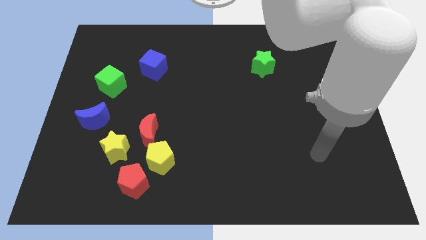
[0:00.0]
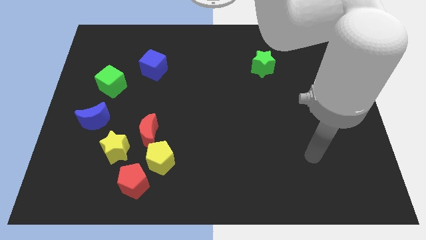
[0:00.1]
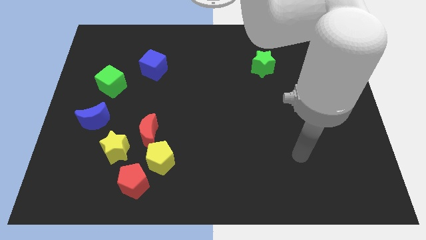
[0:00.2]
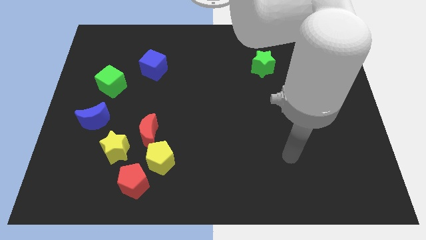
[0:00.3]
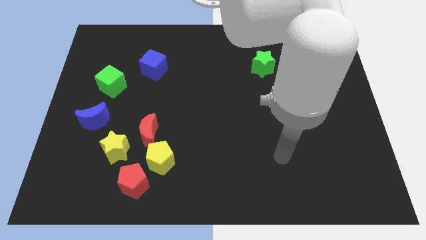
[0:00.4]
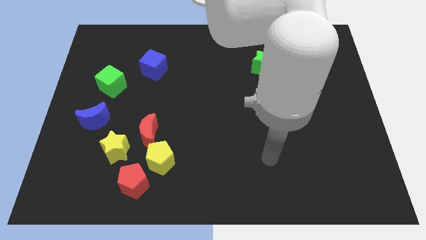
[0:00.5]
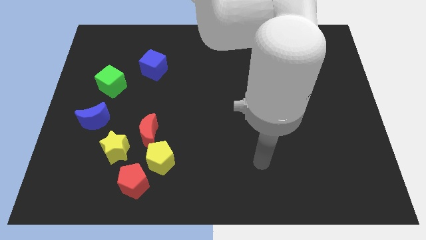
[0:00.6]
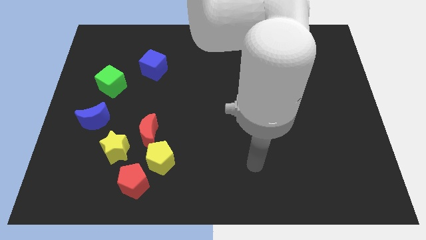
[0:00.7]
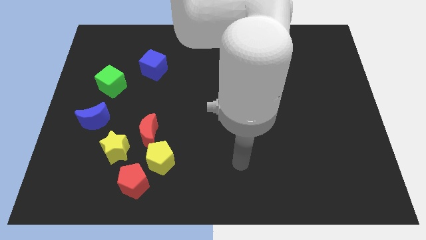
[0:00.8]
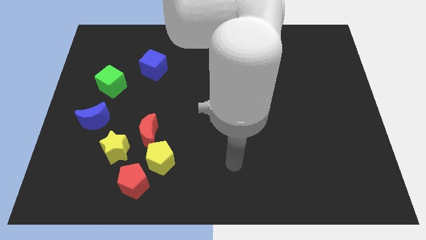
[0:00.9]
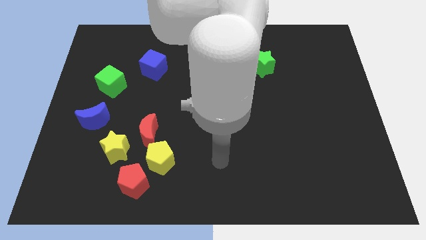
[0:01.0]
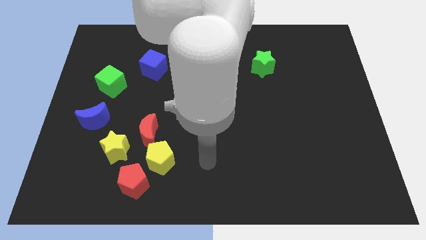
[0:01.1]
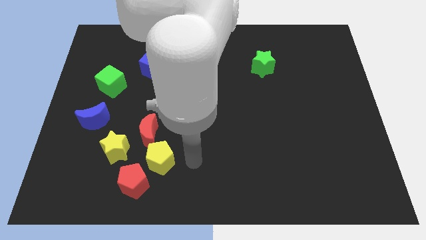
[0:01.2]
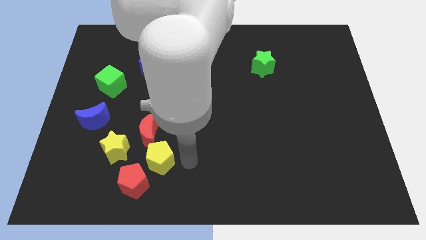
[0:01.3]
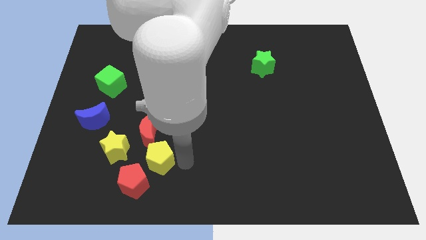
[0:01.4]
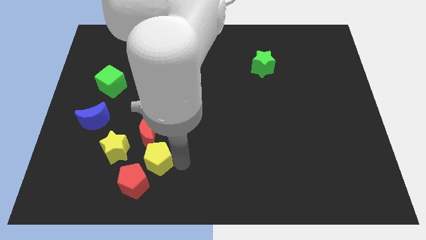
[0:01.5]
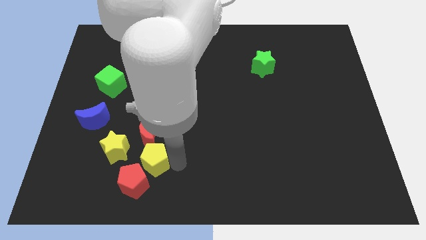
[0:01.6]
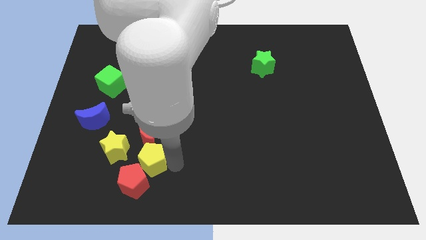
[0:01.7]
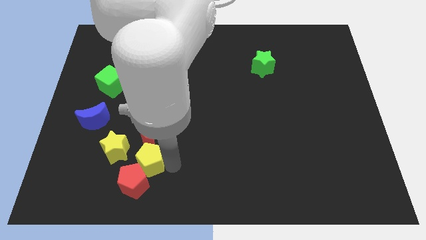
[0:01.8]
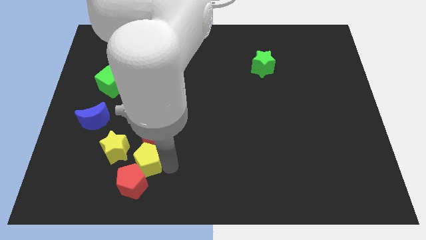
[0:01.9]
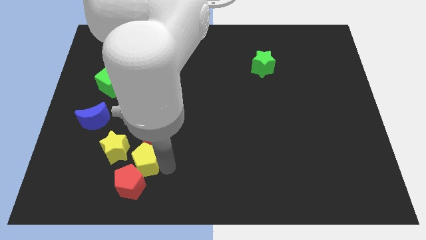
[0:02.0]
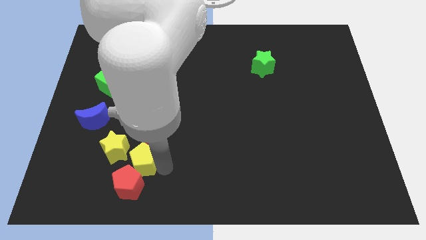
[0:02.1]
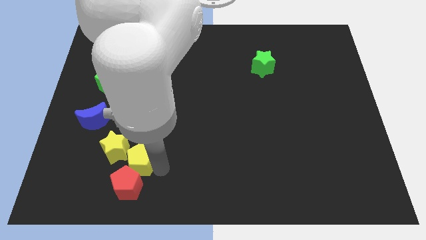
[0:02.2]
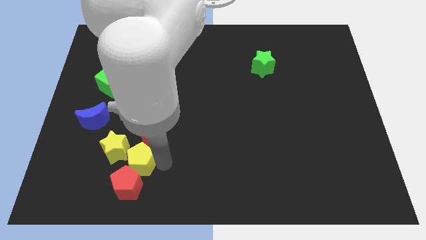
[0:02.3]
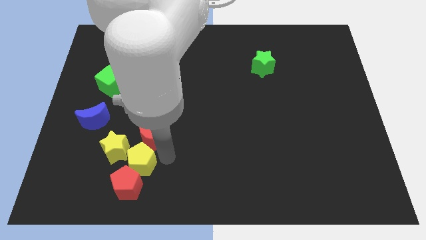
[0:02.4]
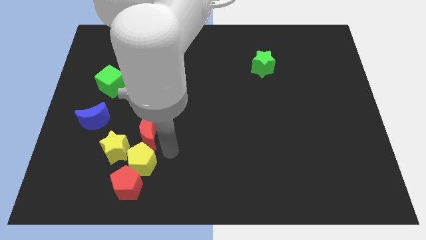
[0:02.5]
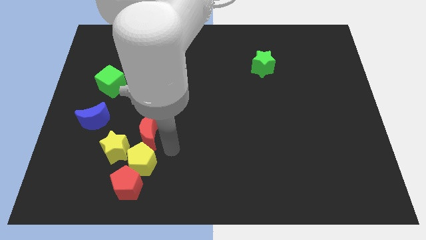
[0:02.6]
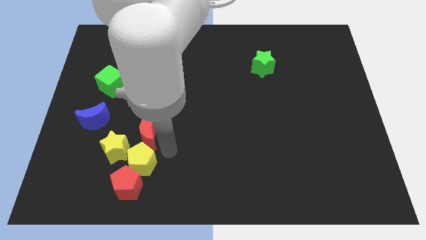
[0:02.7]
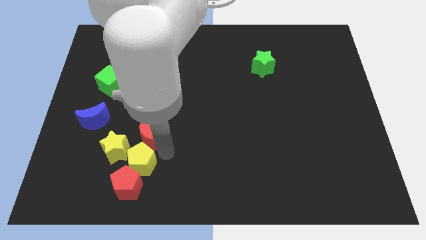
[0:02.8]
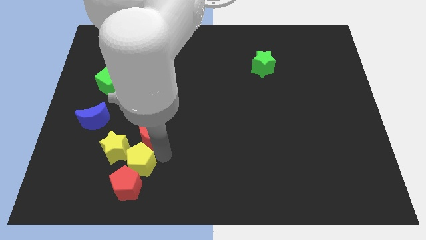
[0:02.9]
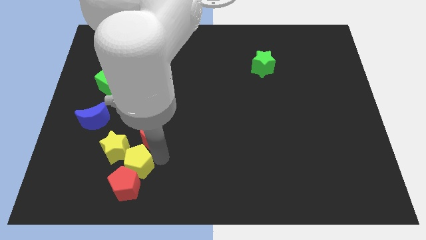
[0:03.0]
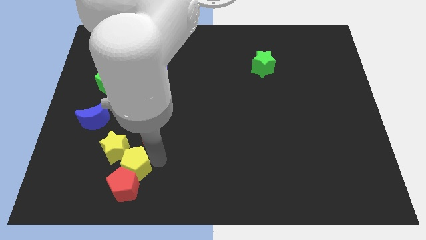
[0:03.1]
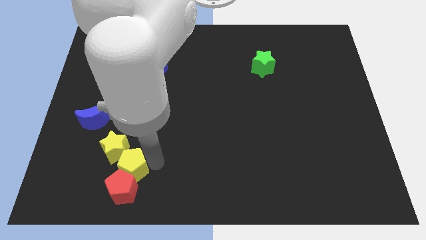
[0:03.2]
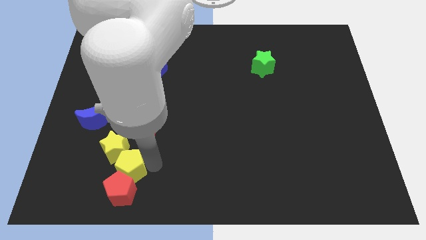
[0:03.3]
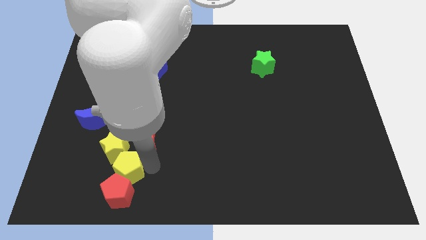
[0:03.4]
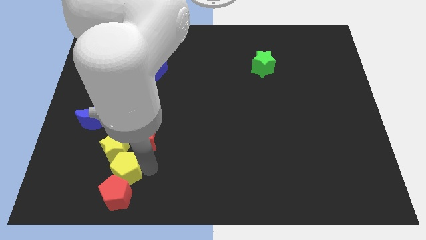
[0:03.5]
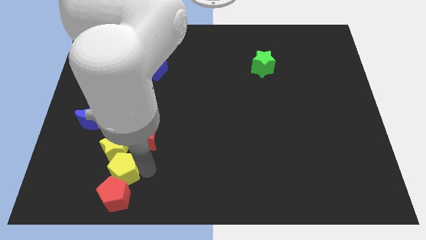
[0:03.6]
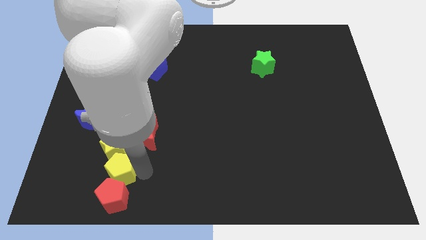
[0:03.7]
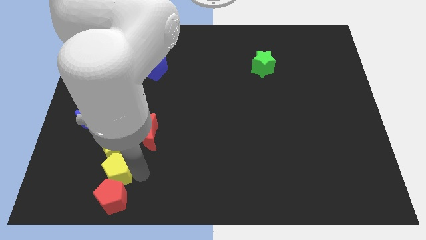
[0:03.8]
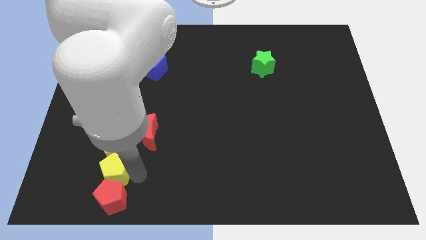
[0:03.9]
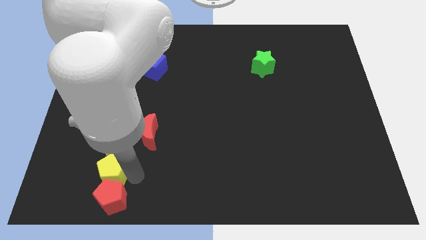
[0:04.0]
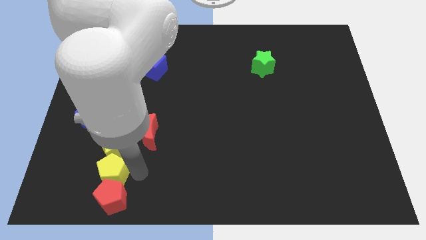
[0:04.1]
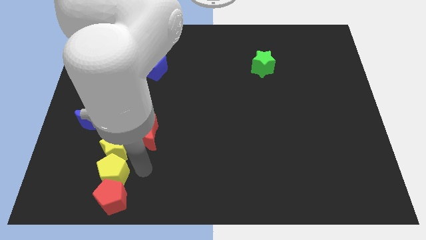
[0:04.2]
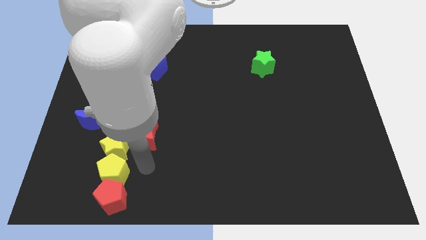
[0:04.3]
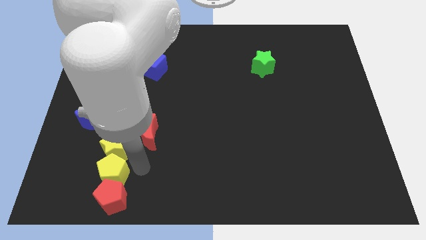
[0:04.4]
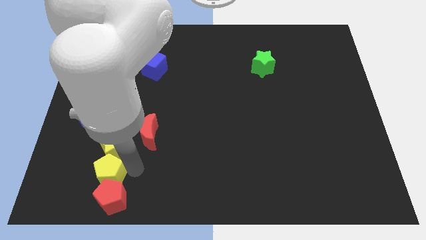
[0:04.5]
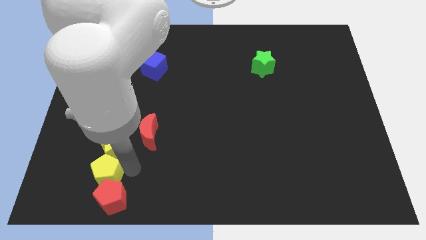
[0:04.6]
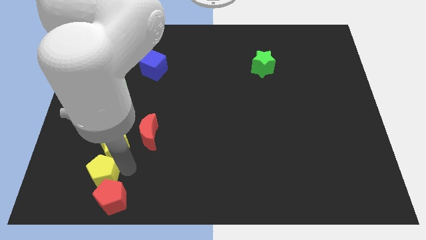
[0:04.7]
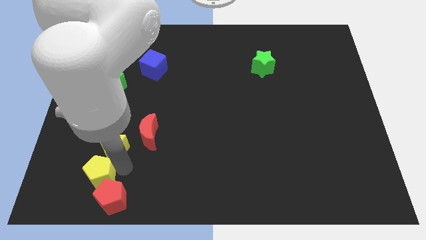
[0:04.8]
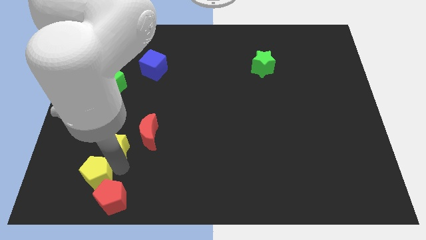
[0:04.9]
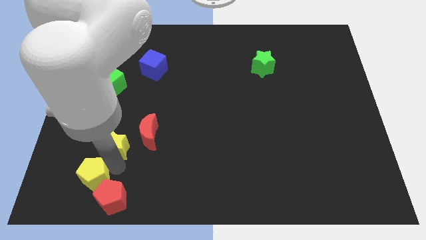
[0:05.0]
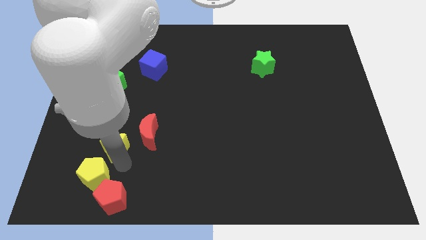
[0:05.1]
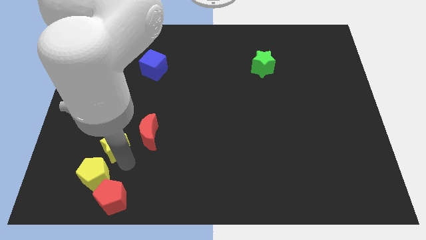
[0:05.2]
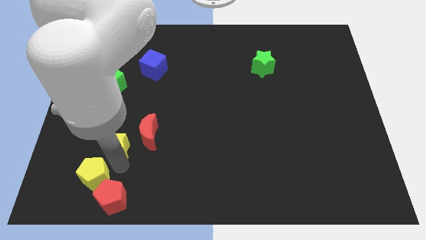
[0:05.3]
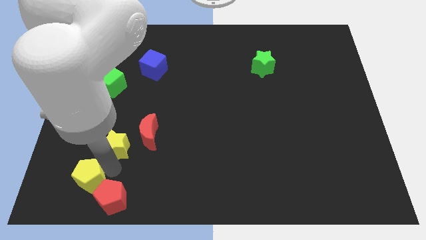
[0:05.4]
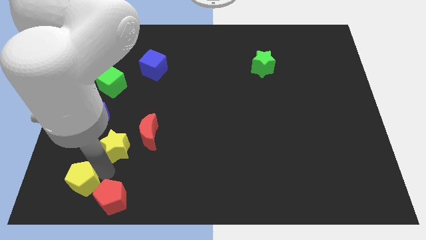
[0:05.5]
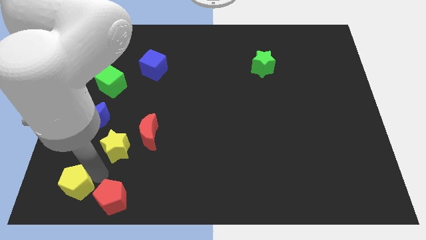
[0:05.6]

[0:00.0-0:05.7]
push the yellow pentagon to the lower left corner
